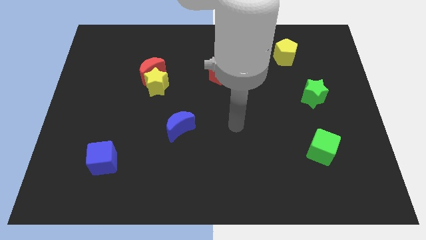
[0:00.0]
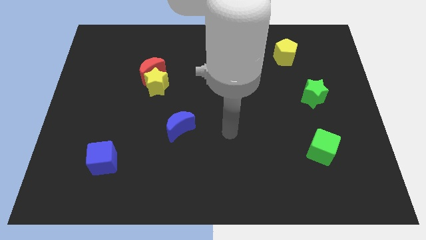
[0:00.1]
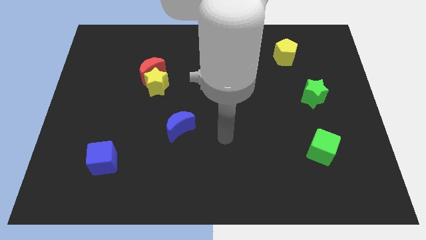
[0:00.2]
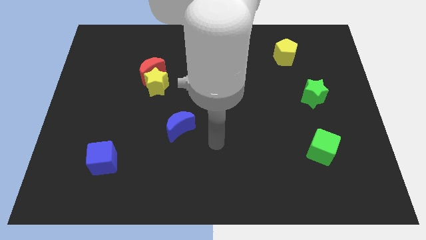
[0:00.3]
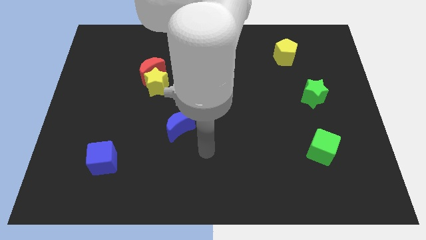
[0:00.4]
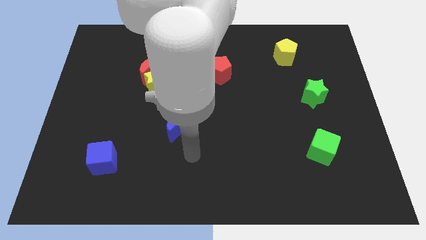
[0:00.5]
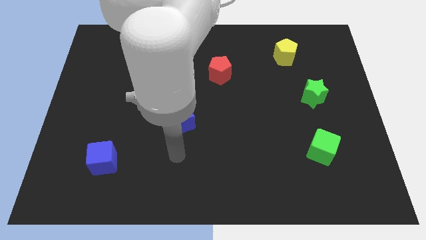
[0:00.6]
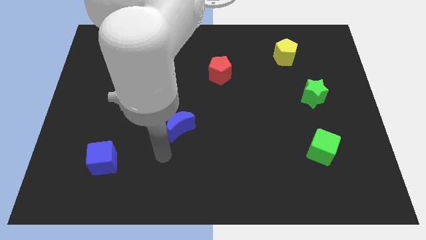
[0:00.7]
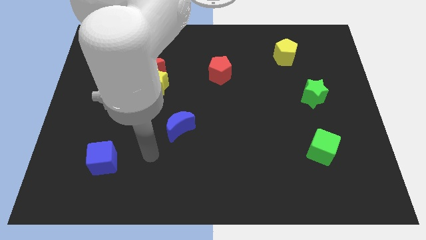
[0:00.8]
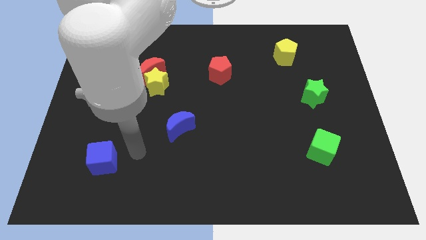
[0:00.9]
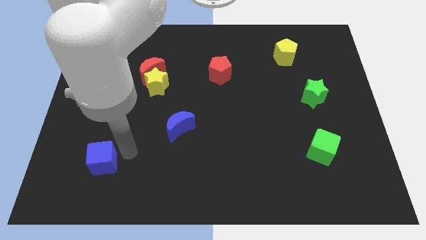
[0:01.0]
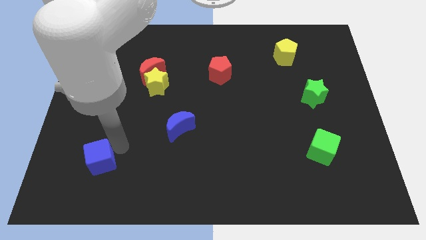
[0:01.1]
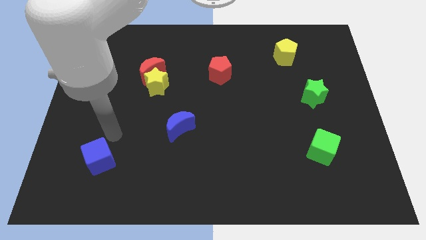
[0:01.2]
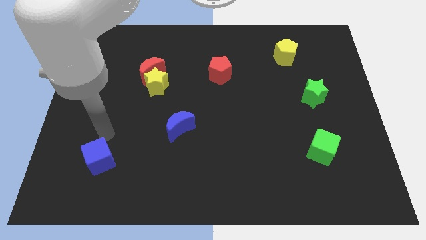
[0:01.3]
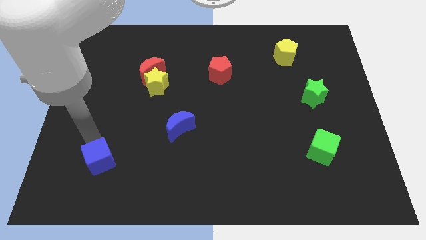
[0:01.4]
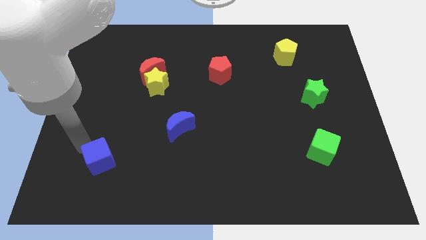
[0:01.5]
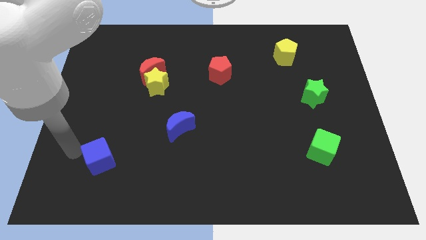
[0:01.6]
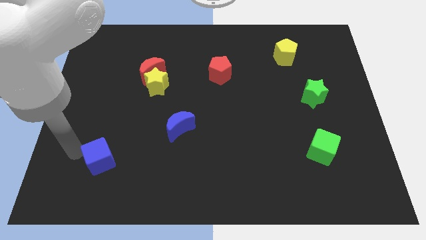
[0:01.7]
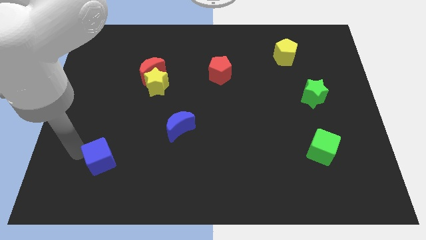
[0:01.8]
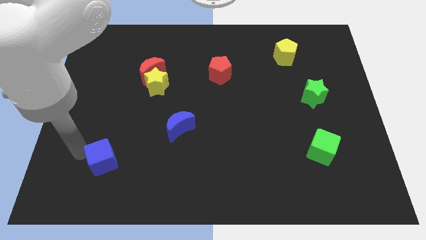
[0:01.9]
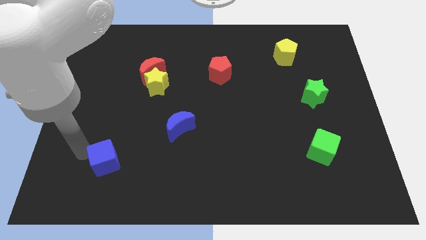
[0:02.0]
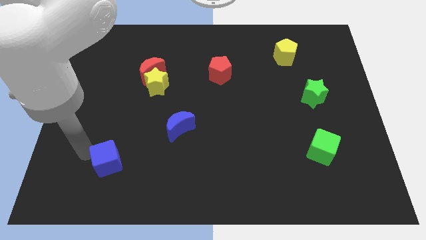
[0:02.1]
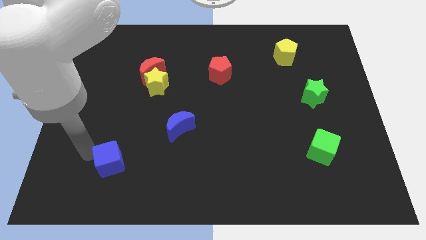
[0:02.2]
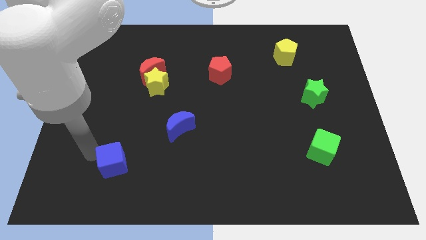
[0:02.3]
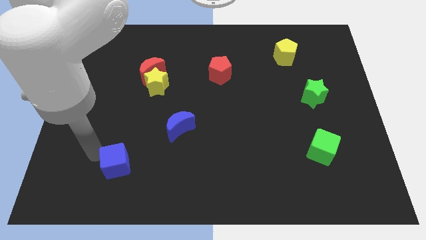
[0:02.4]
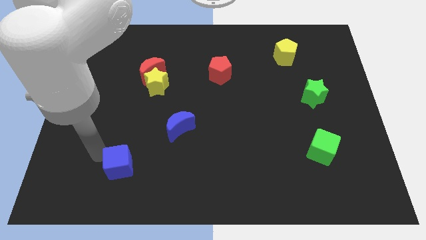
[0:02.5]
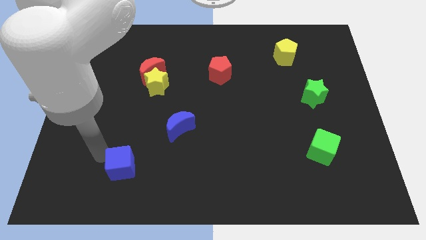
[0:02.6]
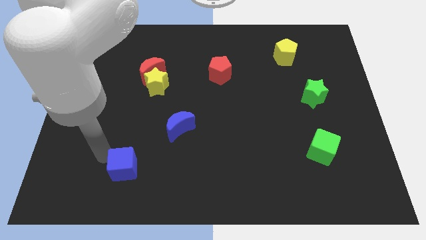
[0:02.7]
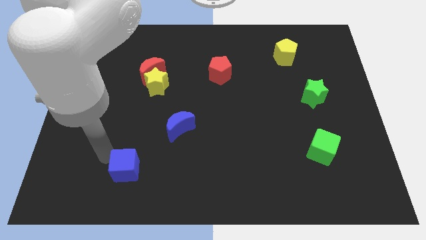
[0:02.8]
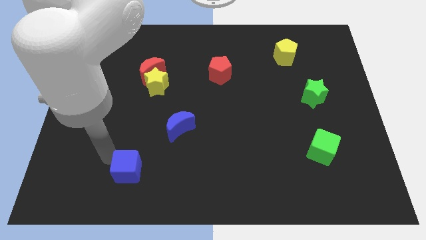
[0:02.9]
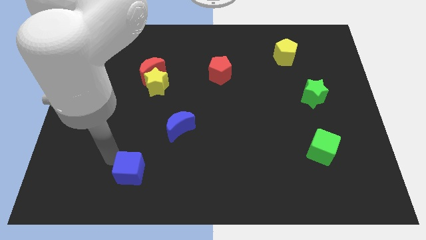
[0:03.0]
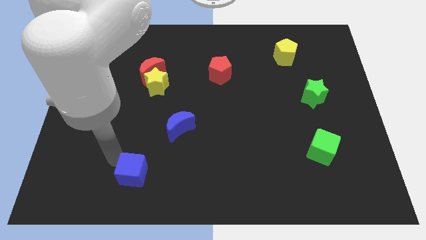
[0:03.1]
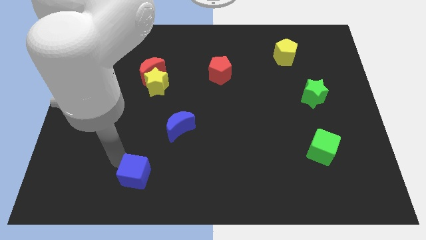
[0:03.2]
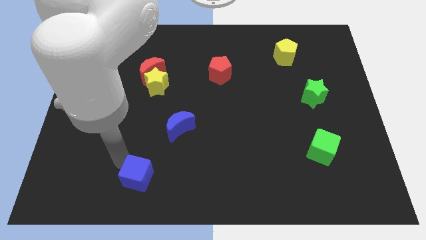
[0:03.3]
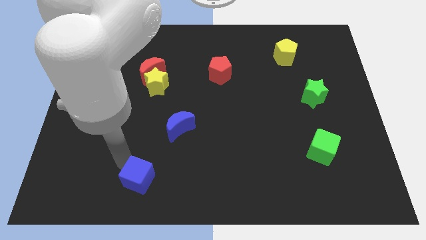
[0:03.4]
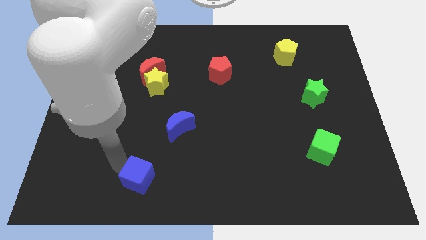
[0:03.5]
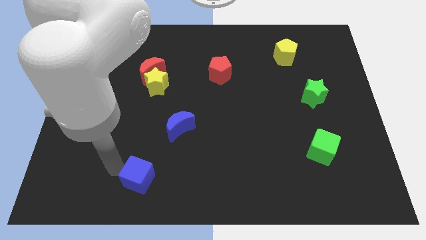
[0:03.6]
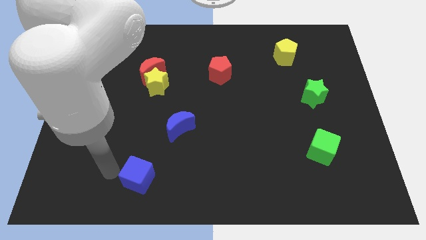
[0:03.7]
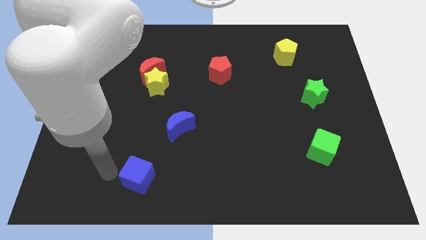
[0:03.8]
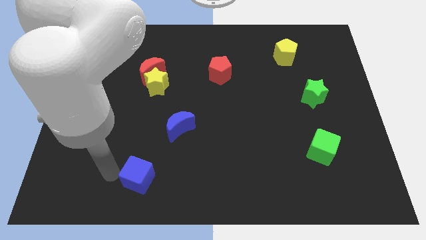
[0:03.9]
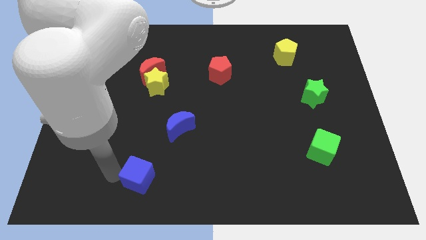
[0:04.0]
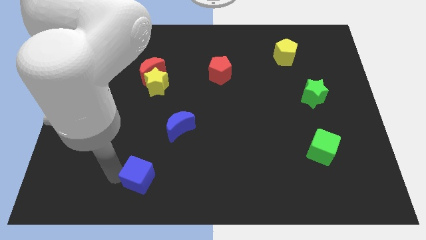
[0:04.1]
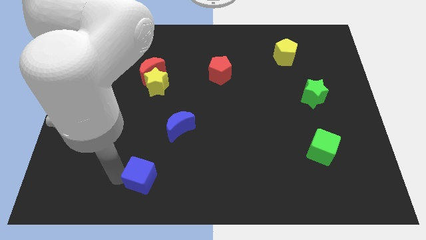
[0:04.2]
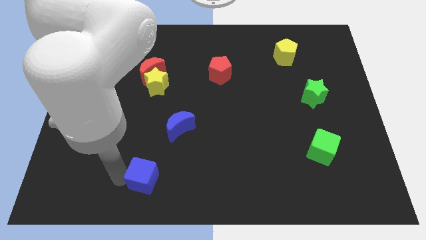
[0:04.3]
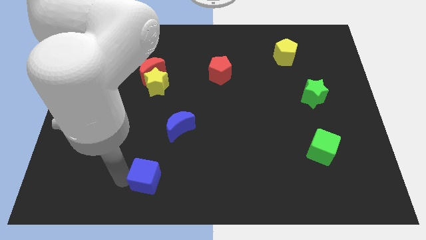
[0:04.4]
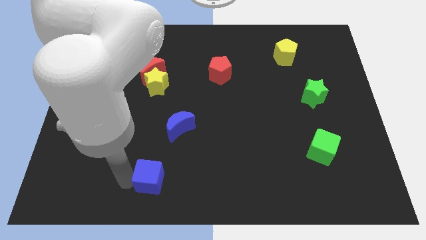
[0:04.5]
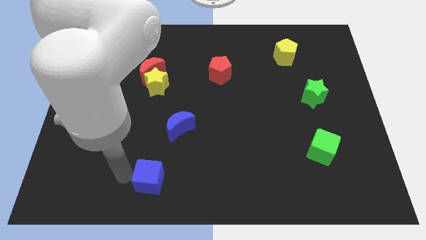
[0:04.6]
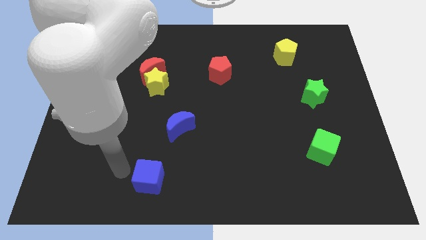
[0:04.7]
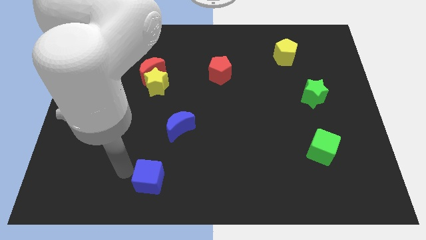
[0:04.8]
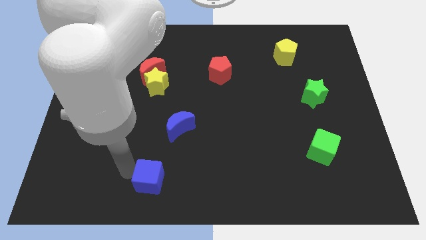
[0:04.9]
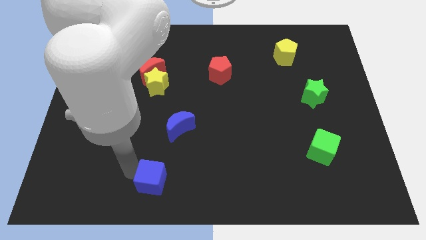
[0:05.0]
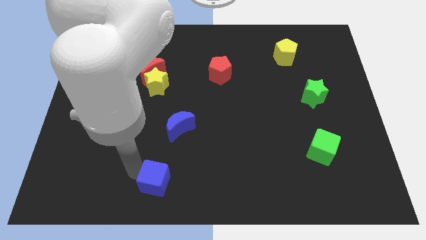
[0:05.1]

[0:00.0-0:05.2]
push the blue cube to the bottom

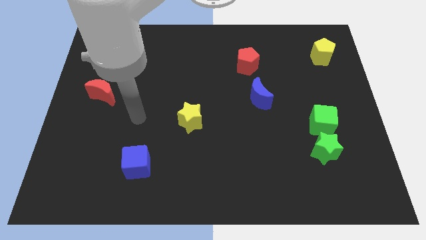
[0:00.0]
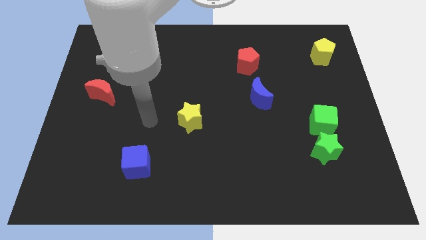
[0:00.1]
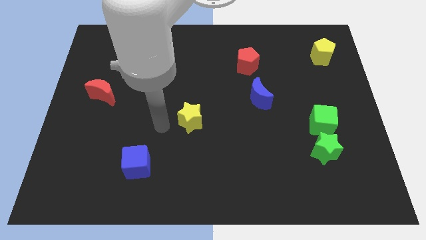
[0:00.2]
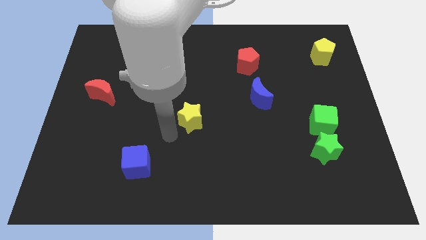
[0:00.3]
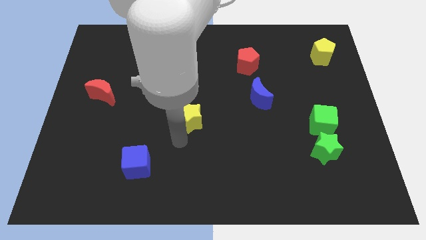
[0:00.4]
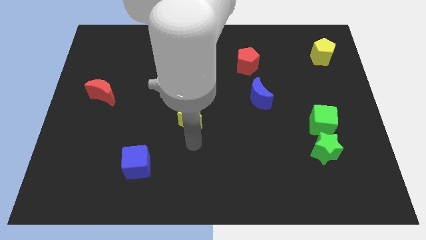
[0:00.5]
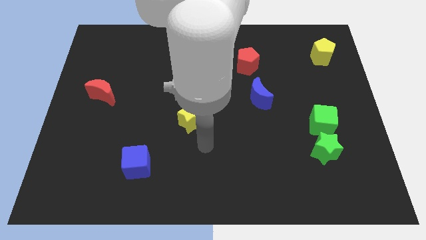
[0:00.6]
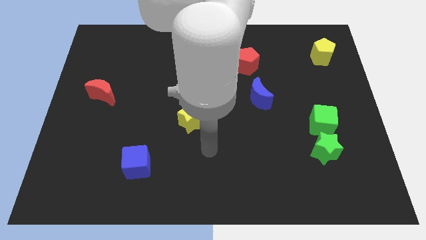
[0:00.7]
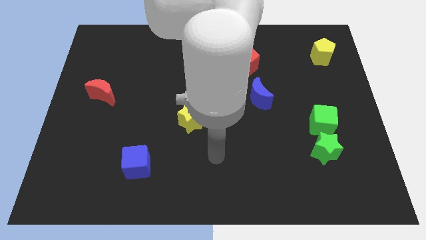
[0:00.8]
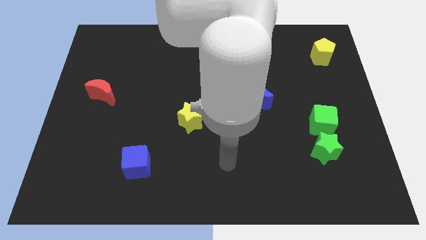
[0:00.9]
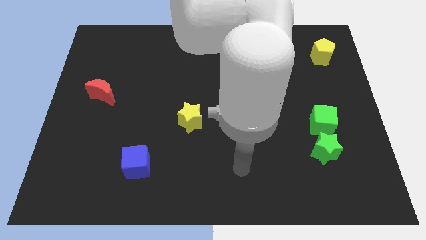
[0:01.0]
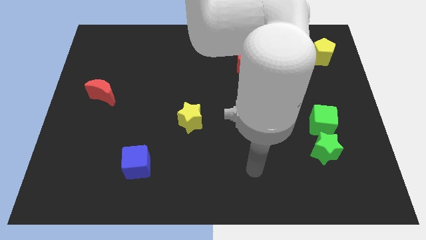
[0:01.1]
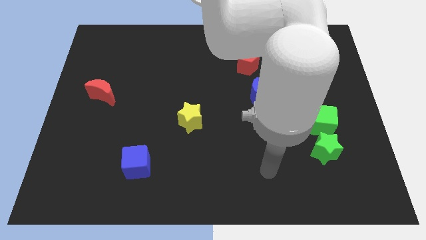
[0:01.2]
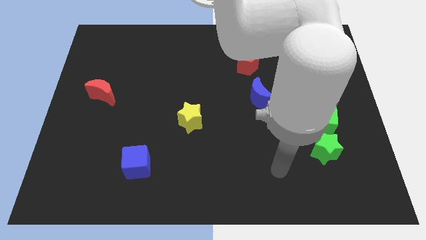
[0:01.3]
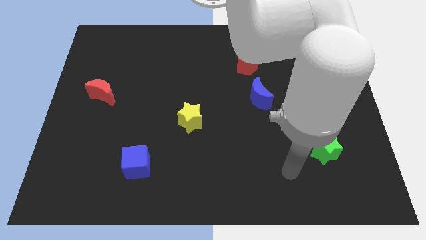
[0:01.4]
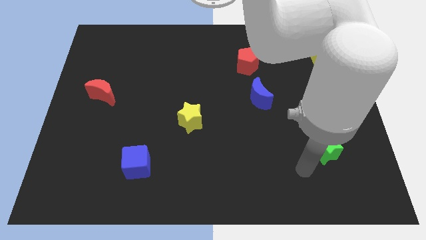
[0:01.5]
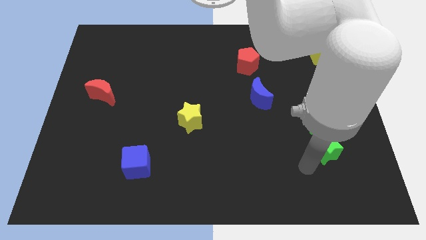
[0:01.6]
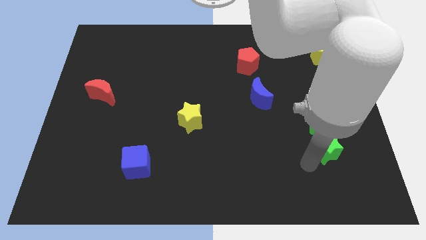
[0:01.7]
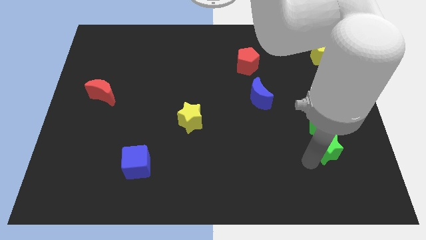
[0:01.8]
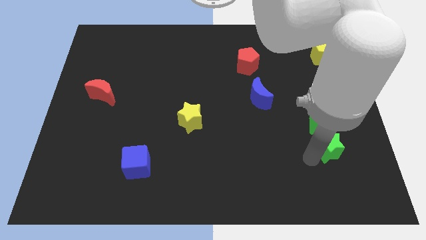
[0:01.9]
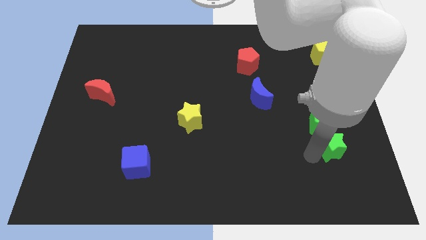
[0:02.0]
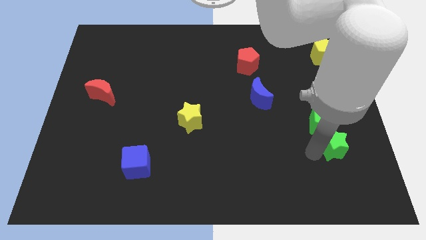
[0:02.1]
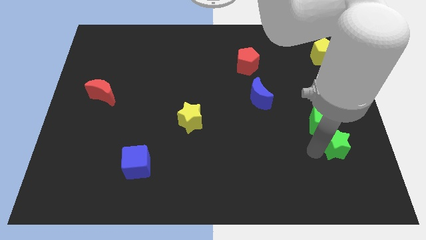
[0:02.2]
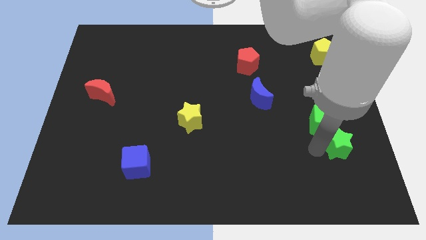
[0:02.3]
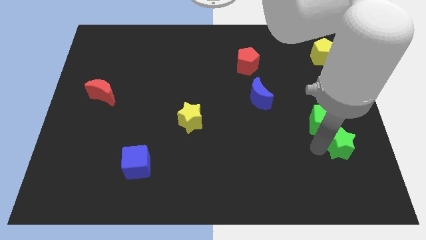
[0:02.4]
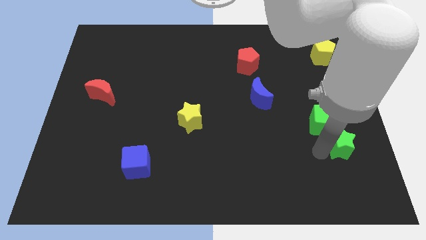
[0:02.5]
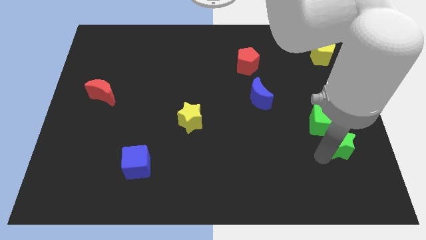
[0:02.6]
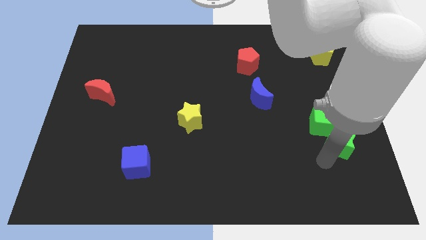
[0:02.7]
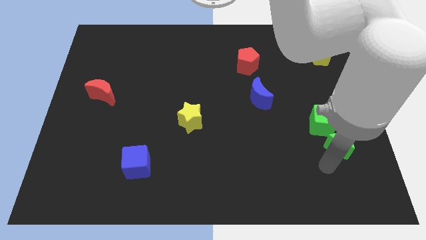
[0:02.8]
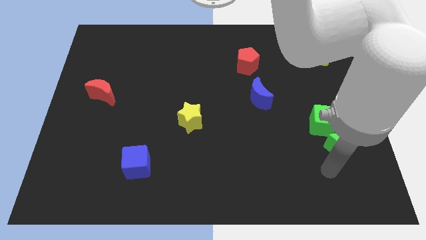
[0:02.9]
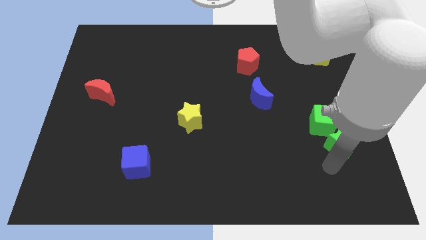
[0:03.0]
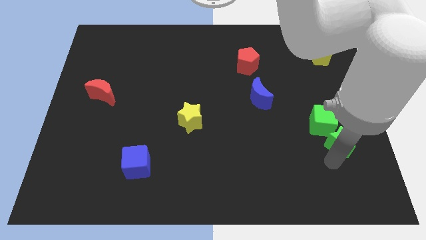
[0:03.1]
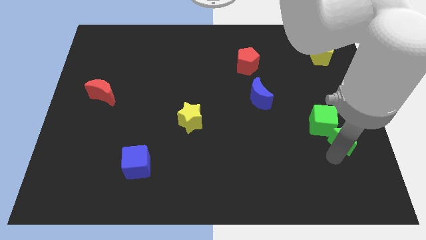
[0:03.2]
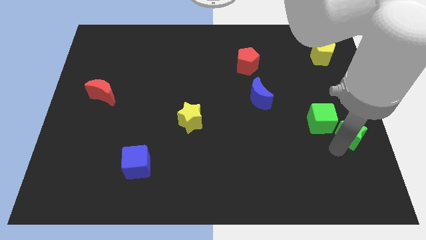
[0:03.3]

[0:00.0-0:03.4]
put the green star to the center right
